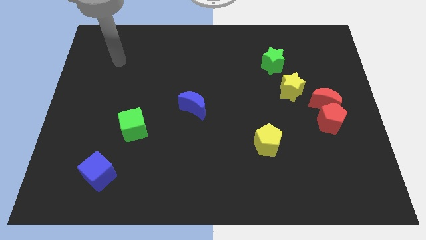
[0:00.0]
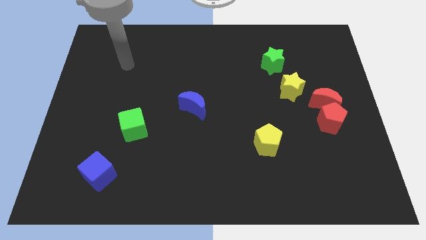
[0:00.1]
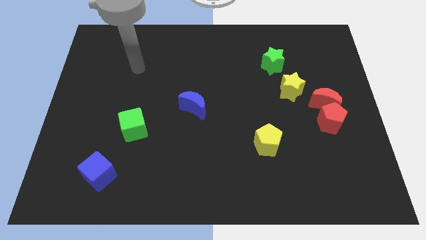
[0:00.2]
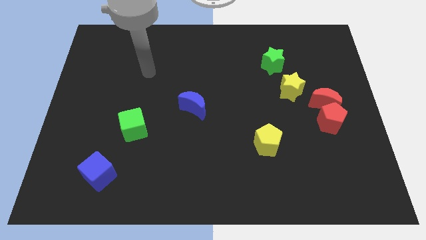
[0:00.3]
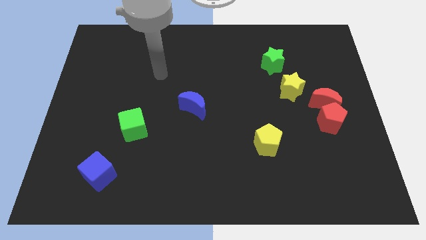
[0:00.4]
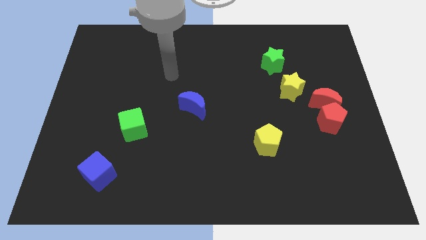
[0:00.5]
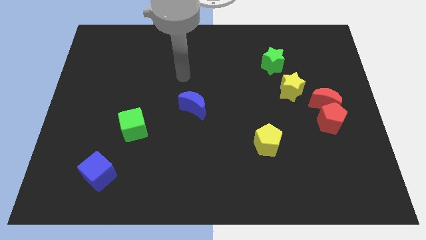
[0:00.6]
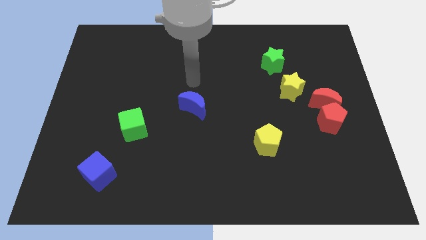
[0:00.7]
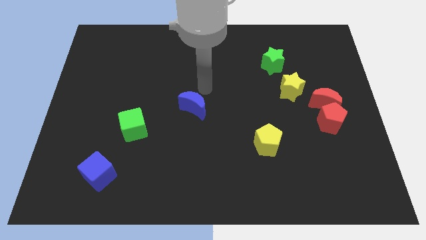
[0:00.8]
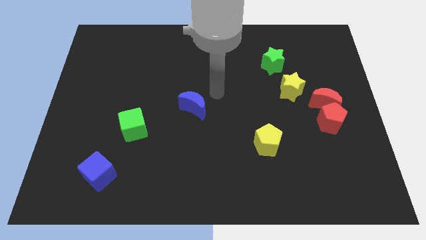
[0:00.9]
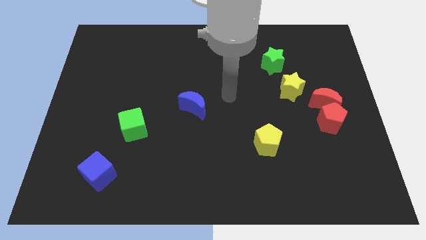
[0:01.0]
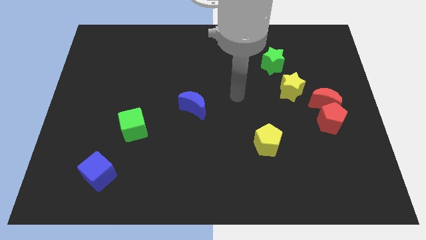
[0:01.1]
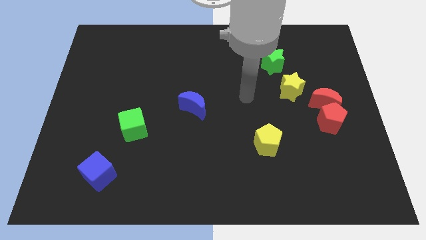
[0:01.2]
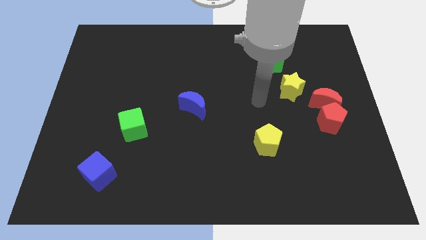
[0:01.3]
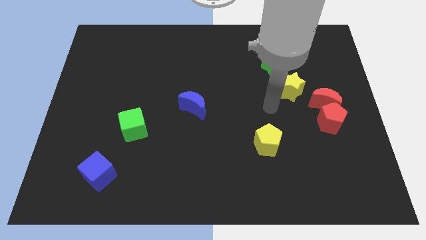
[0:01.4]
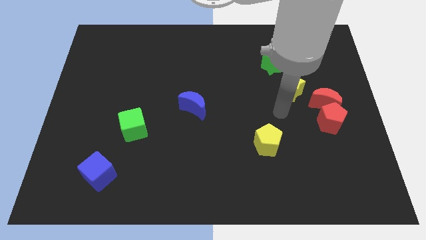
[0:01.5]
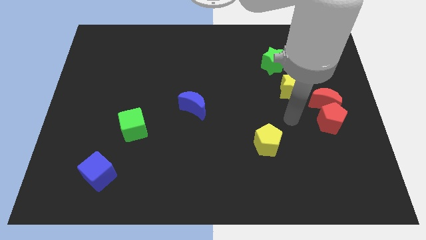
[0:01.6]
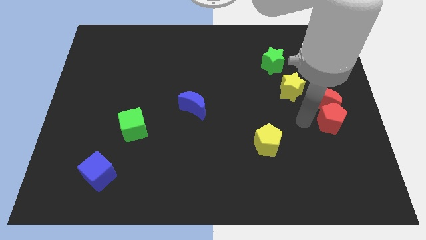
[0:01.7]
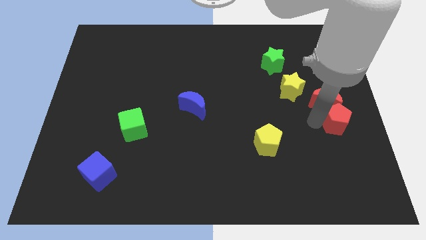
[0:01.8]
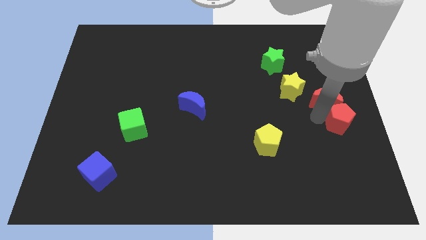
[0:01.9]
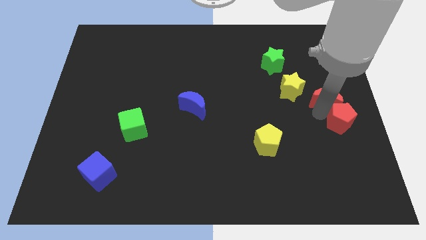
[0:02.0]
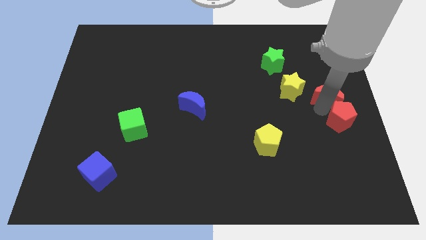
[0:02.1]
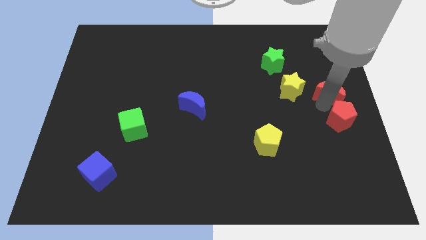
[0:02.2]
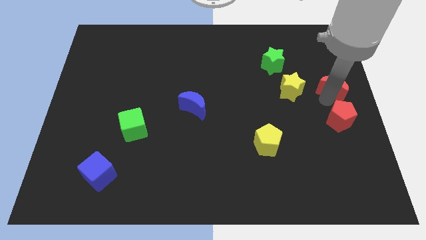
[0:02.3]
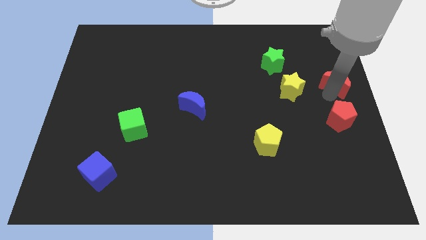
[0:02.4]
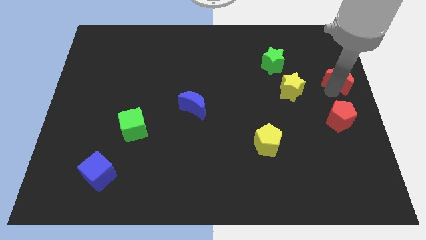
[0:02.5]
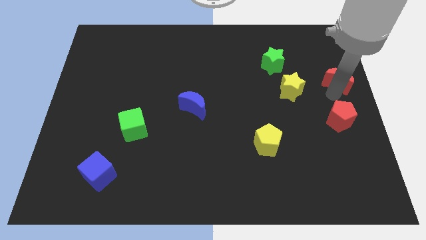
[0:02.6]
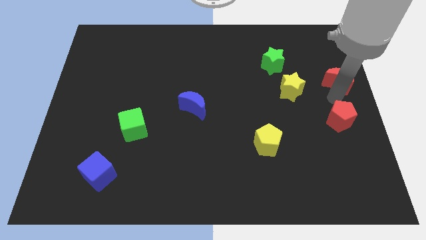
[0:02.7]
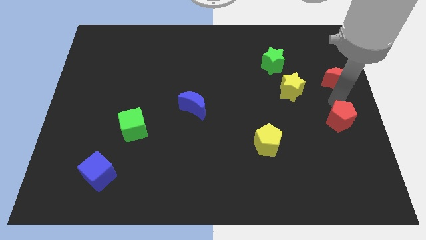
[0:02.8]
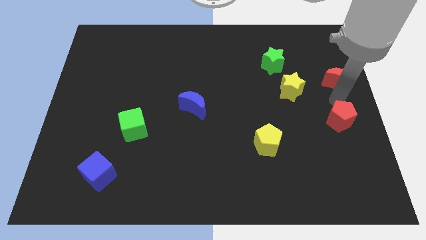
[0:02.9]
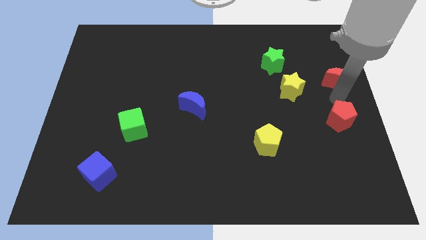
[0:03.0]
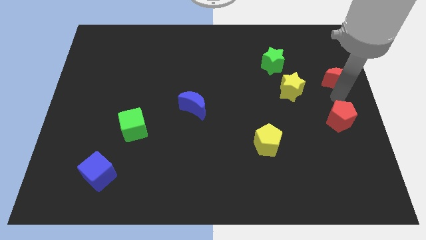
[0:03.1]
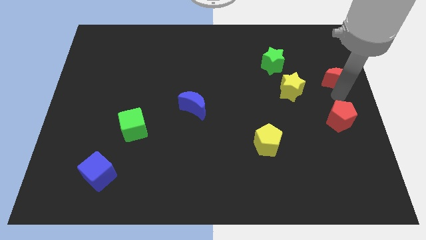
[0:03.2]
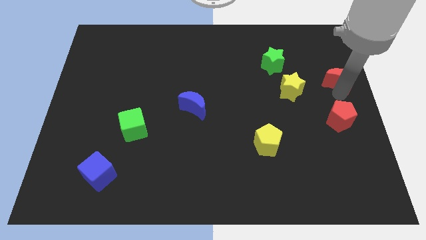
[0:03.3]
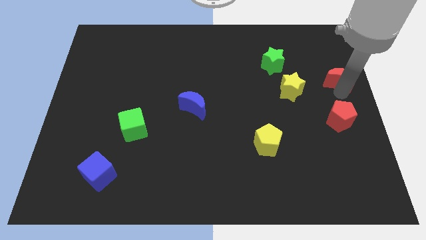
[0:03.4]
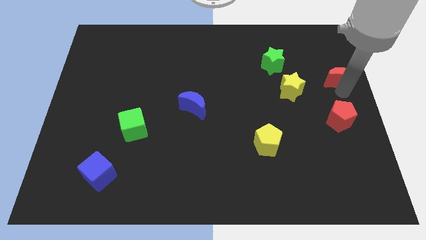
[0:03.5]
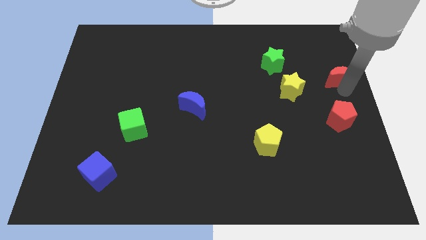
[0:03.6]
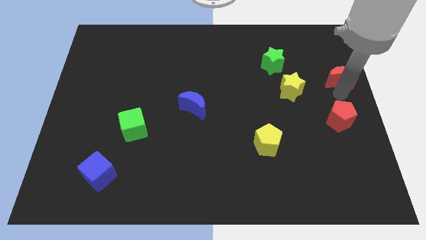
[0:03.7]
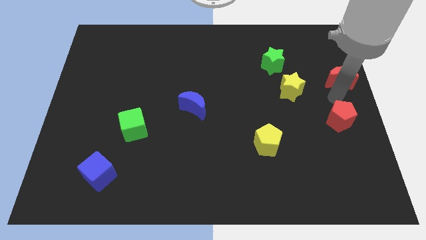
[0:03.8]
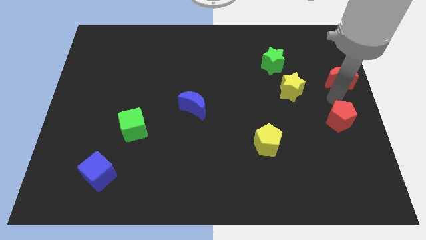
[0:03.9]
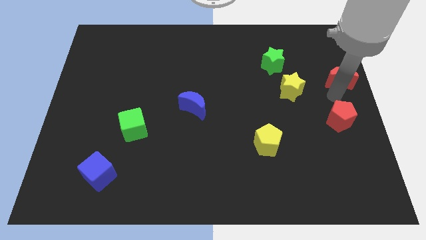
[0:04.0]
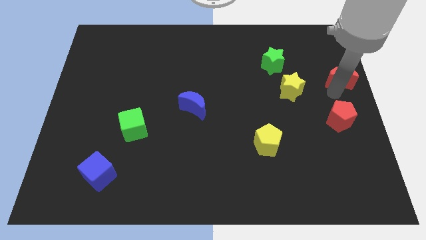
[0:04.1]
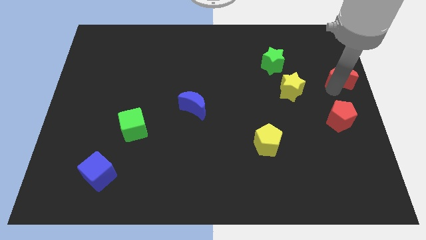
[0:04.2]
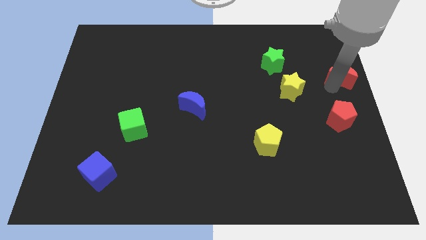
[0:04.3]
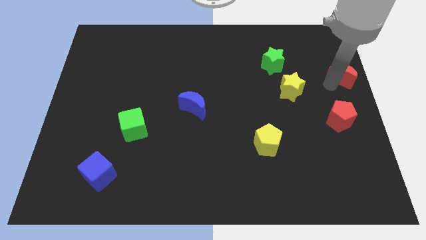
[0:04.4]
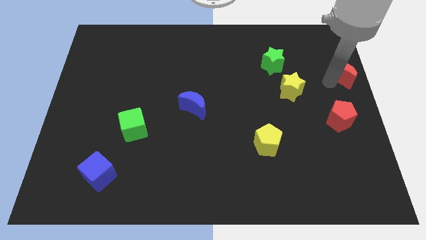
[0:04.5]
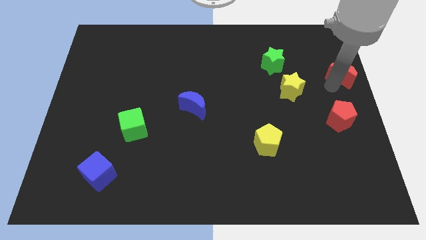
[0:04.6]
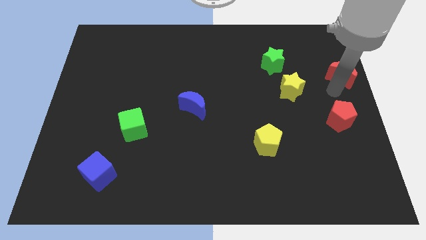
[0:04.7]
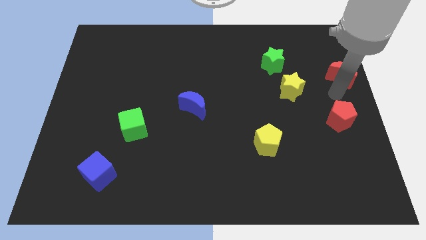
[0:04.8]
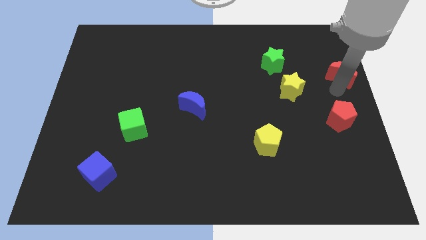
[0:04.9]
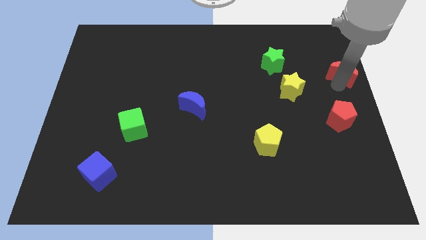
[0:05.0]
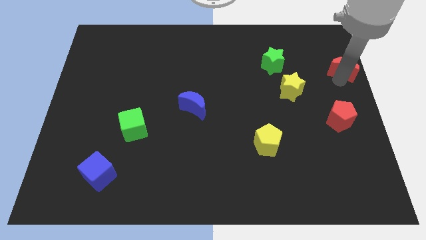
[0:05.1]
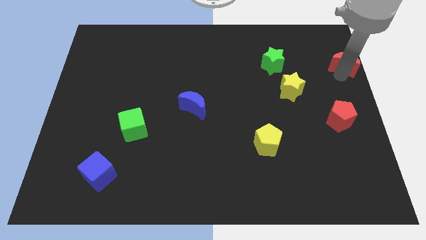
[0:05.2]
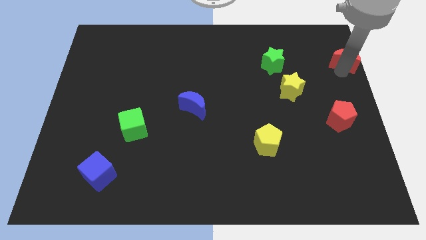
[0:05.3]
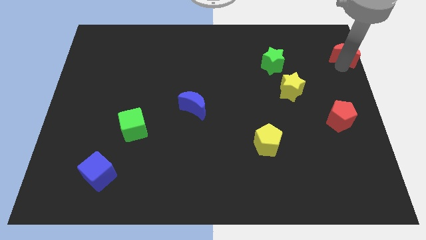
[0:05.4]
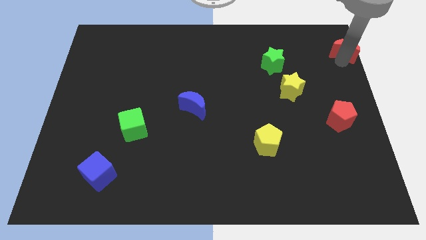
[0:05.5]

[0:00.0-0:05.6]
move the red moon to the upper right corner

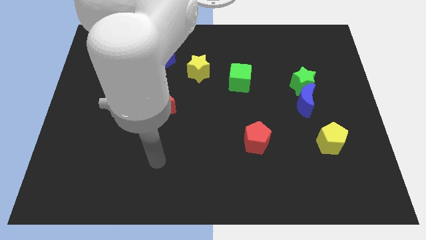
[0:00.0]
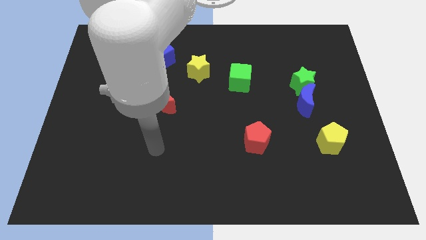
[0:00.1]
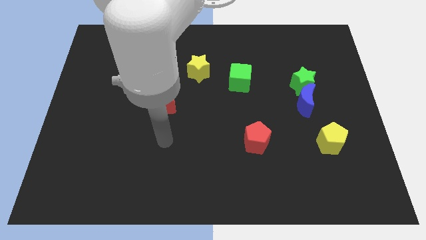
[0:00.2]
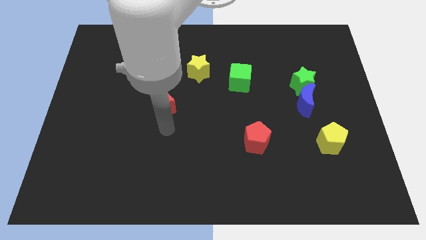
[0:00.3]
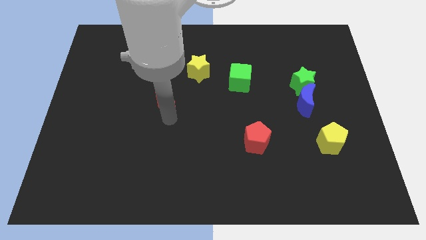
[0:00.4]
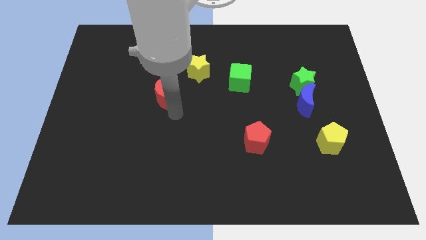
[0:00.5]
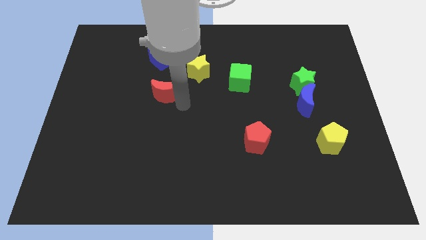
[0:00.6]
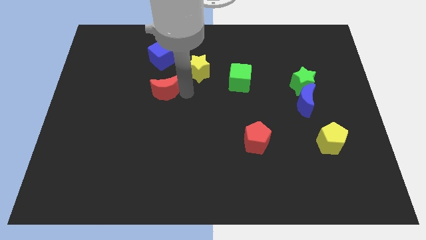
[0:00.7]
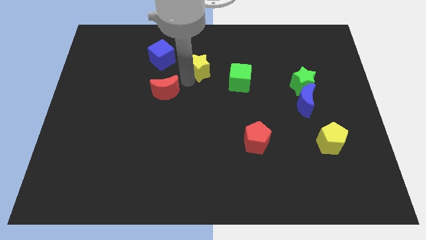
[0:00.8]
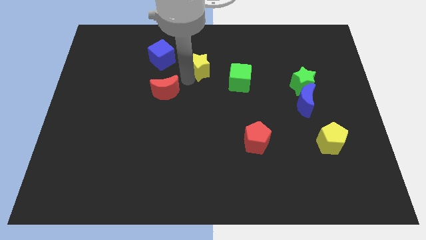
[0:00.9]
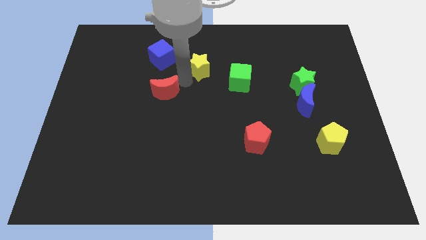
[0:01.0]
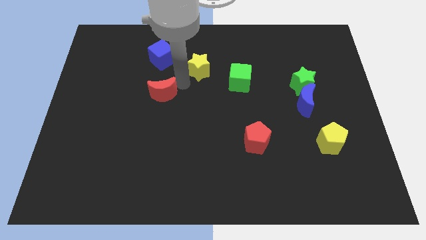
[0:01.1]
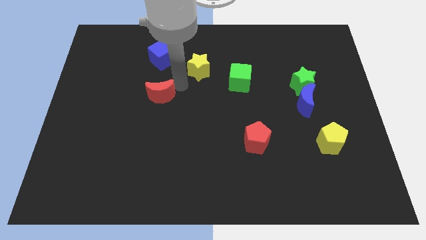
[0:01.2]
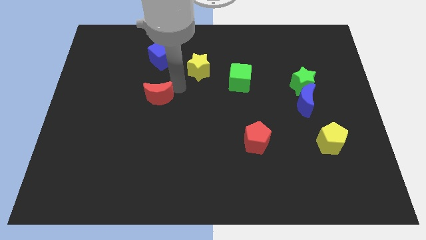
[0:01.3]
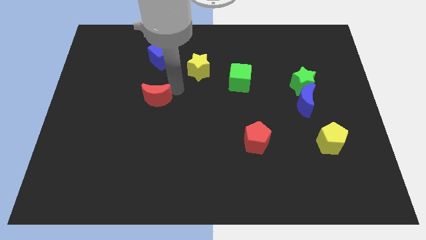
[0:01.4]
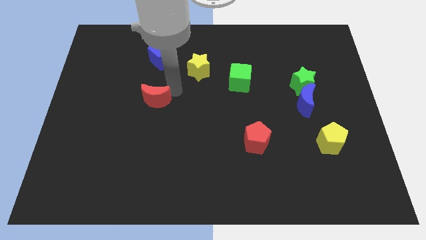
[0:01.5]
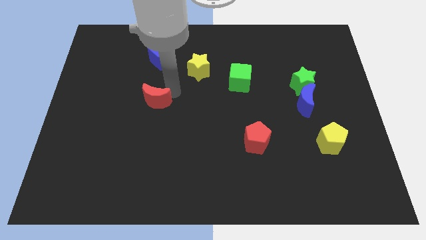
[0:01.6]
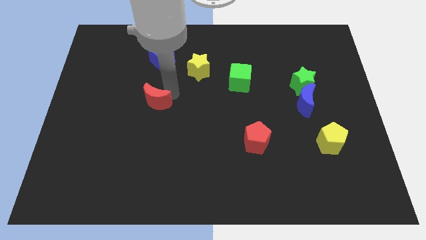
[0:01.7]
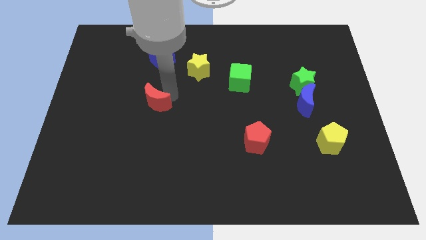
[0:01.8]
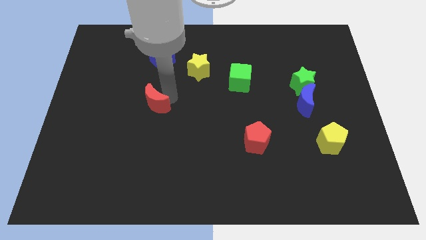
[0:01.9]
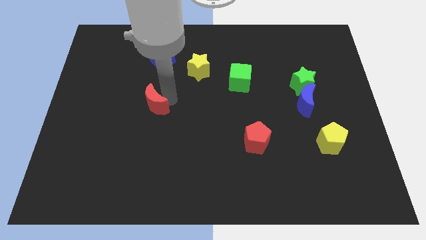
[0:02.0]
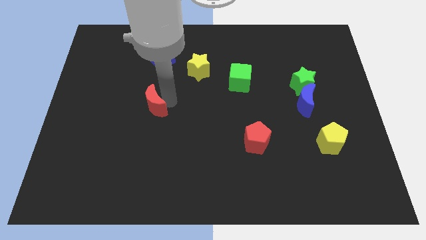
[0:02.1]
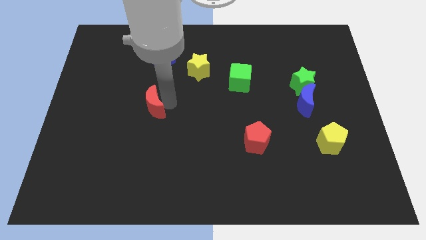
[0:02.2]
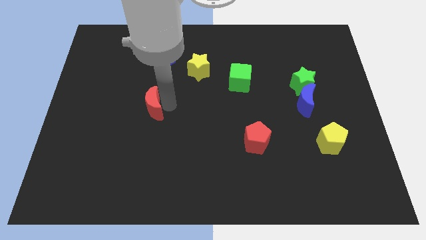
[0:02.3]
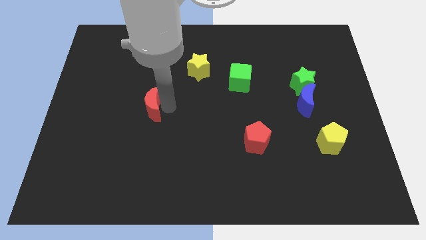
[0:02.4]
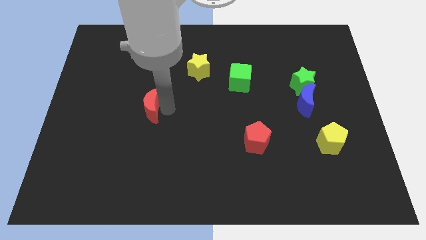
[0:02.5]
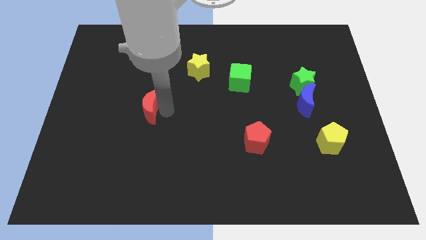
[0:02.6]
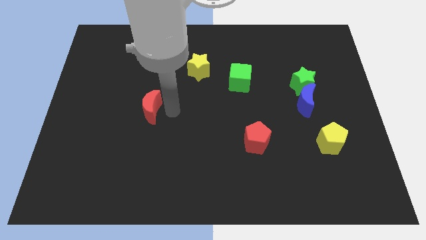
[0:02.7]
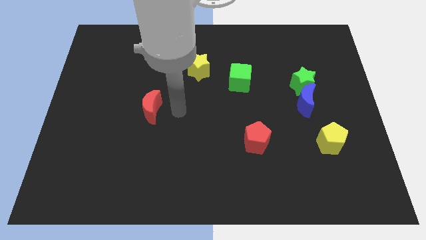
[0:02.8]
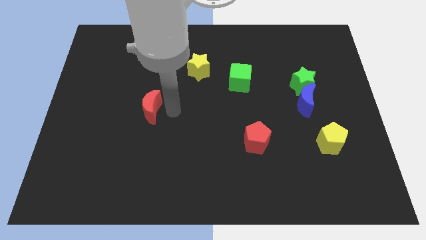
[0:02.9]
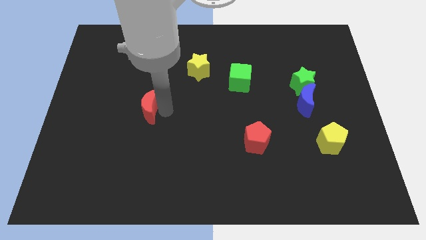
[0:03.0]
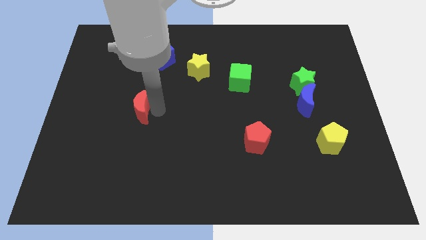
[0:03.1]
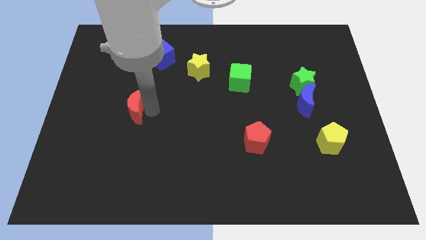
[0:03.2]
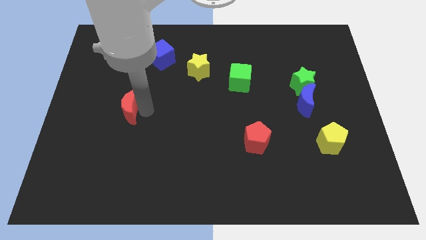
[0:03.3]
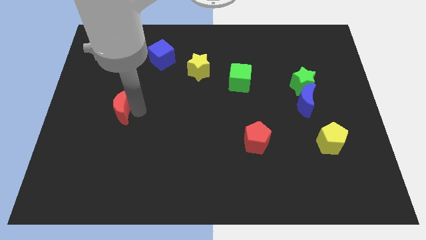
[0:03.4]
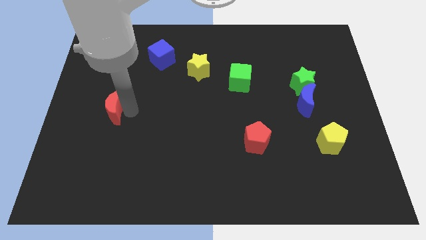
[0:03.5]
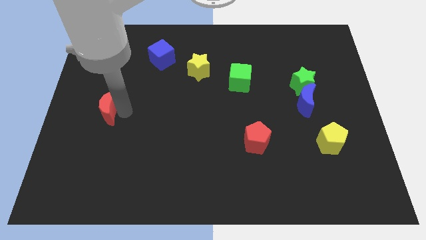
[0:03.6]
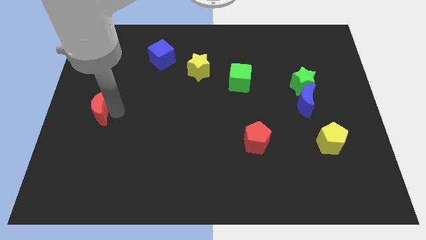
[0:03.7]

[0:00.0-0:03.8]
push the red moon to the left side
